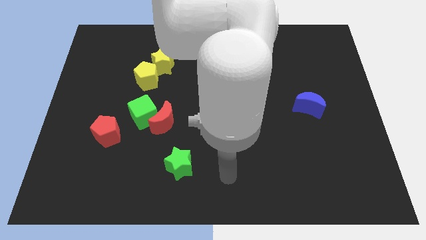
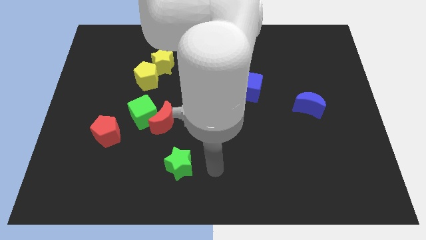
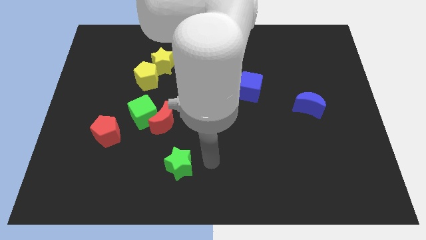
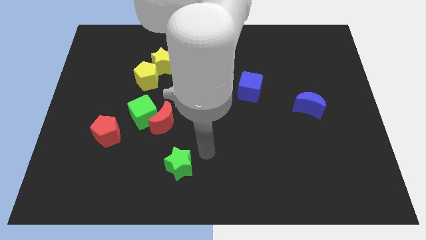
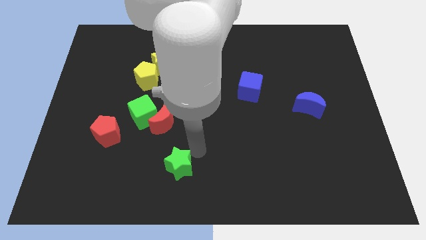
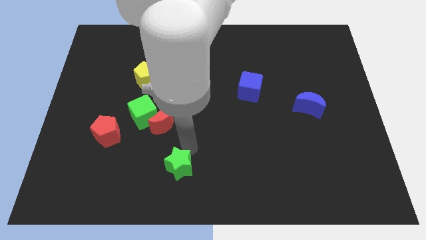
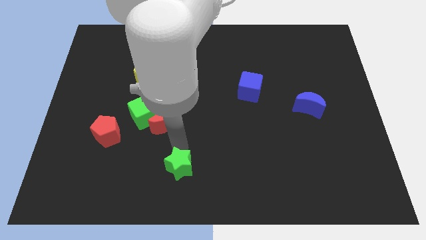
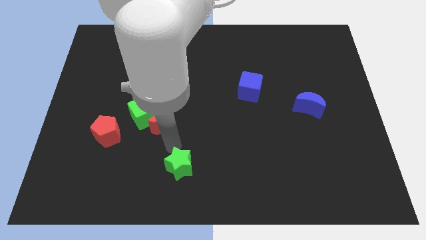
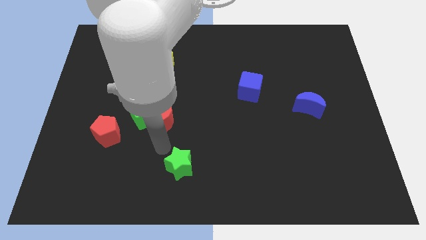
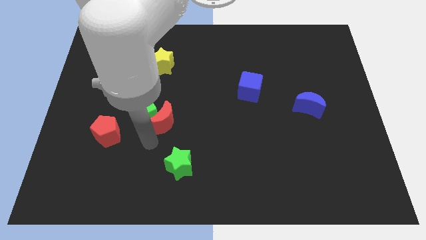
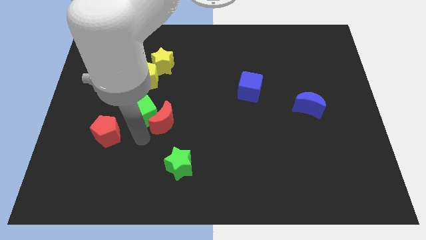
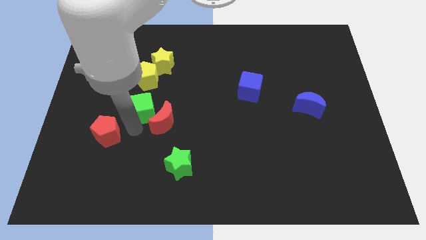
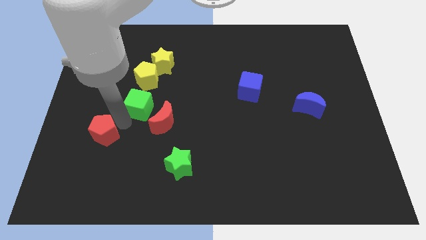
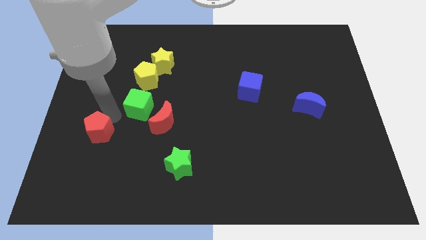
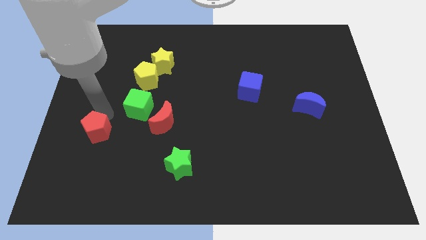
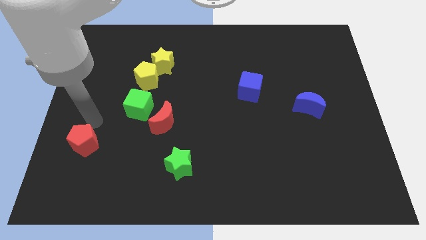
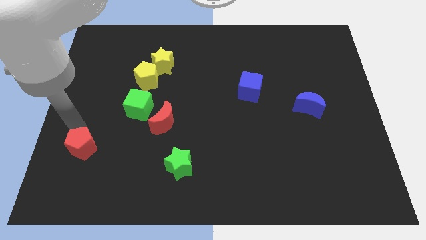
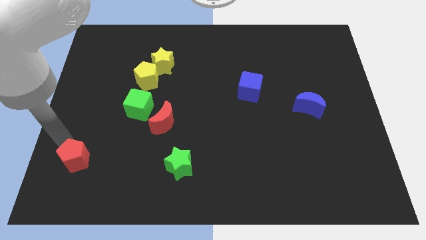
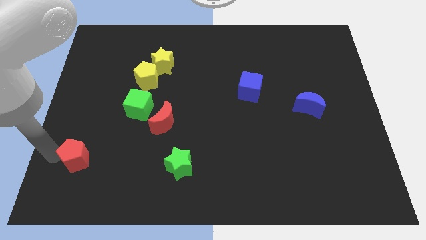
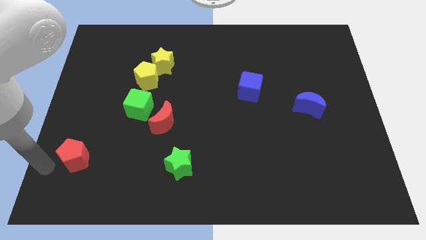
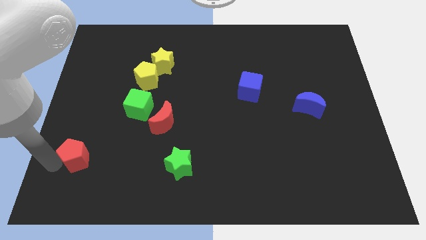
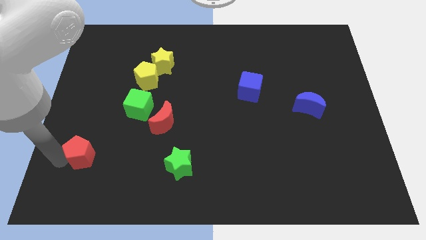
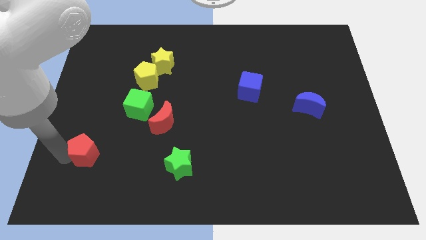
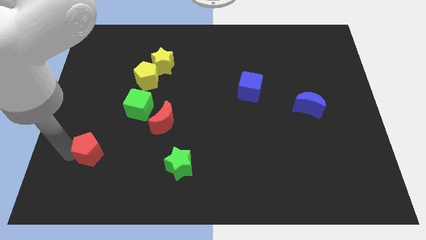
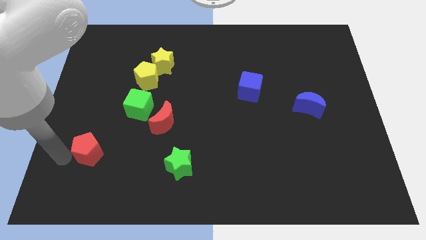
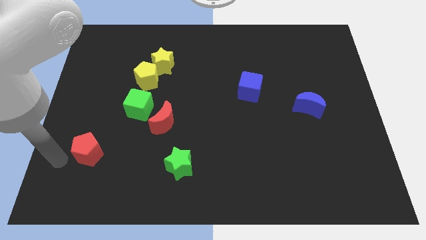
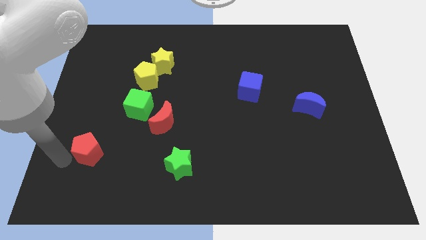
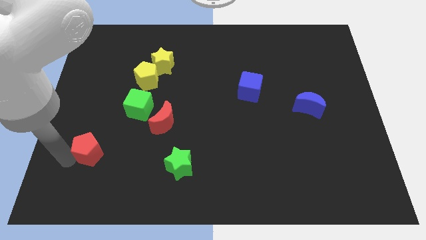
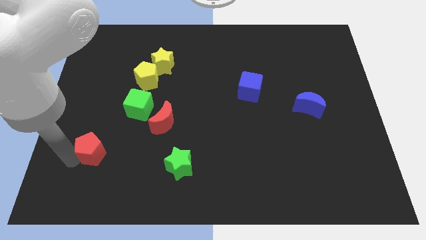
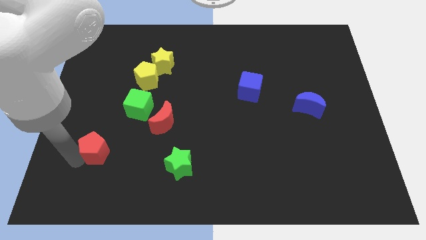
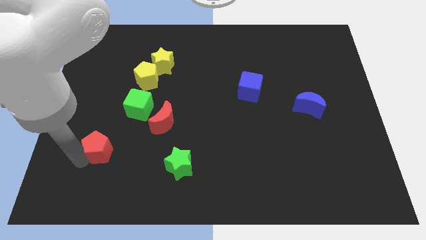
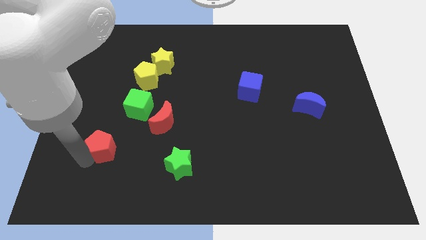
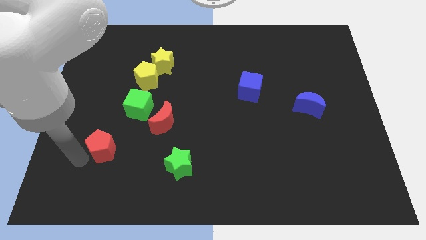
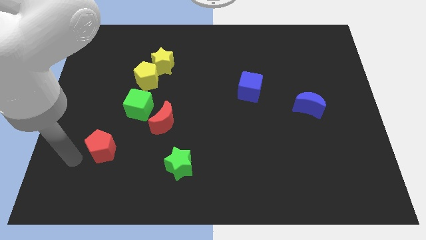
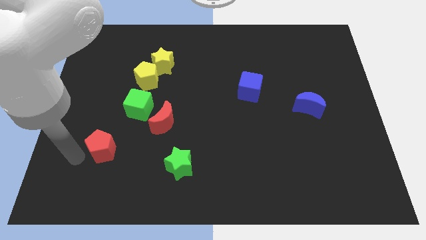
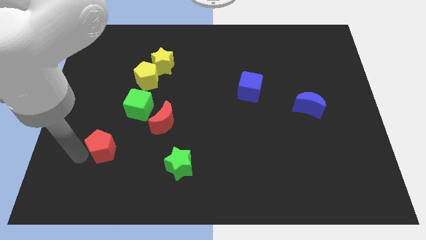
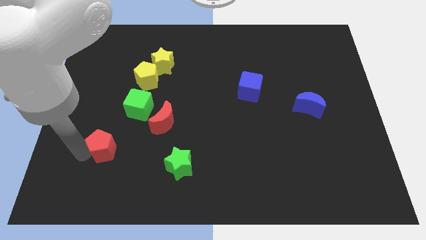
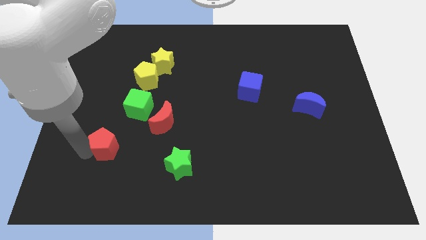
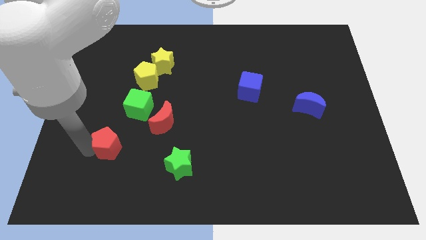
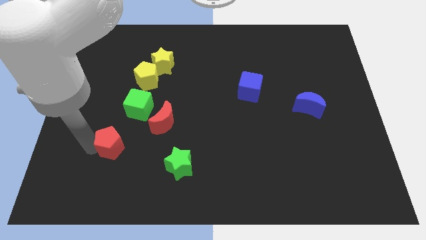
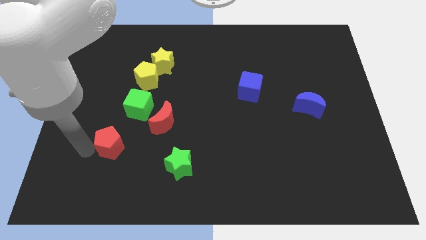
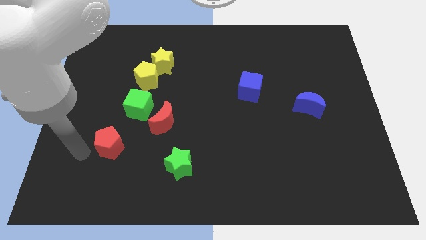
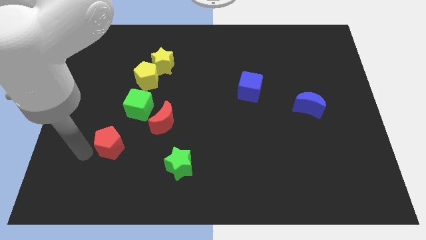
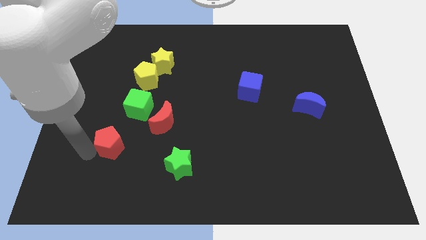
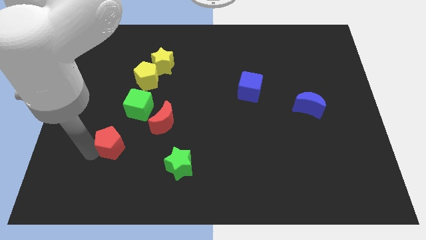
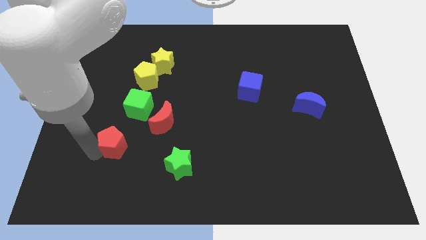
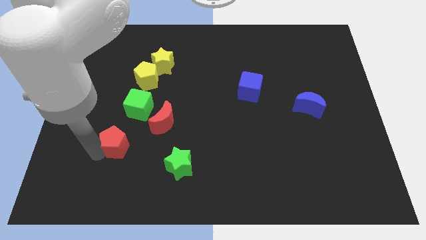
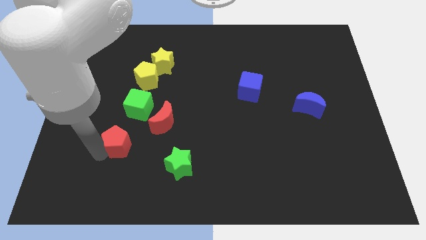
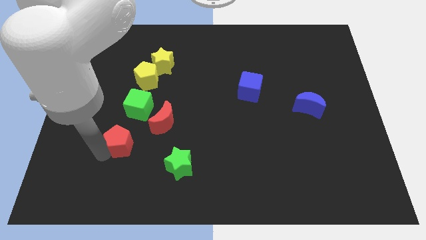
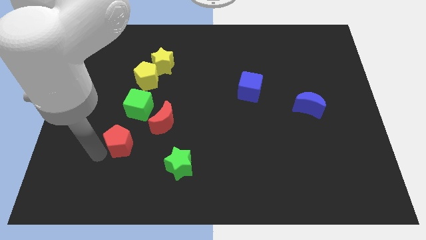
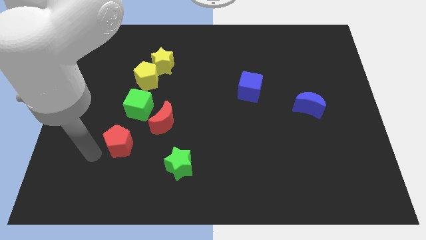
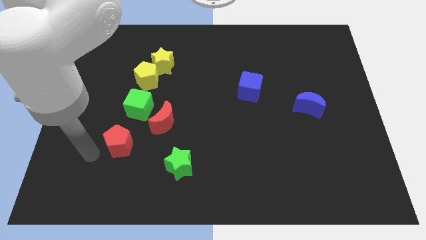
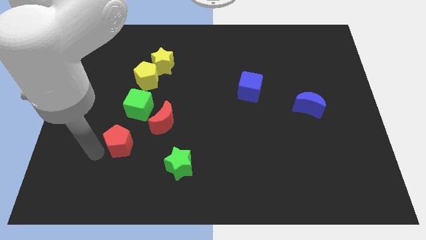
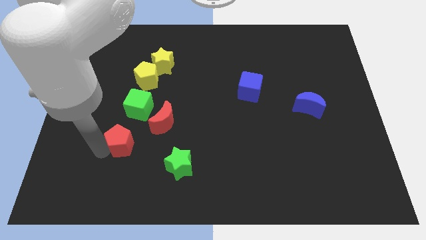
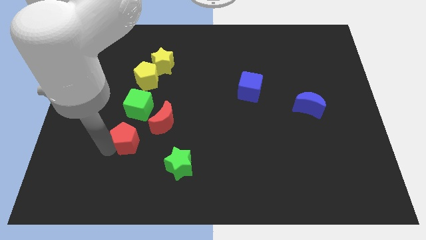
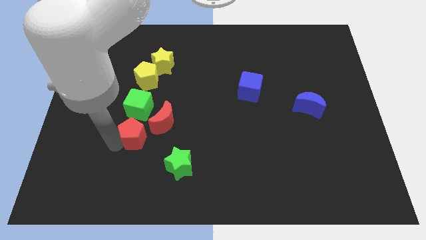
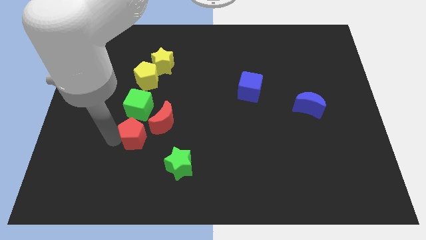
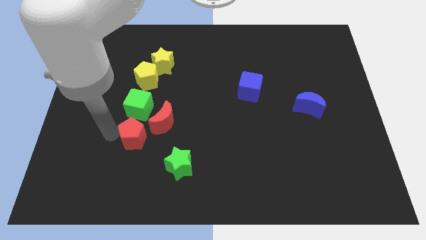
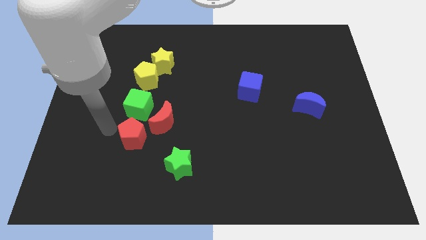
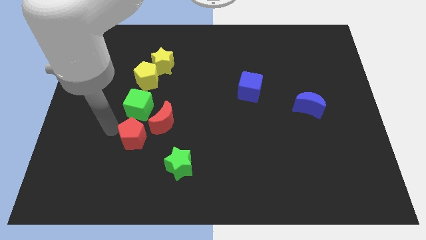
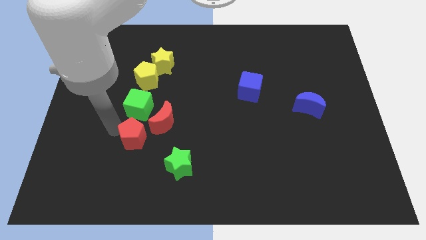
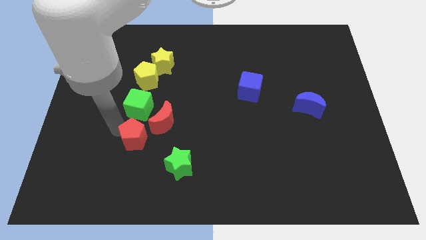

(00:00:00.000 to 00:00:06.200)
put the red pentagon to the top left side of the green star

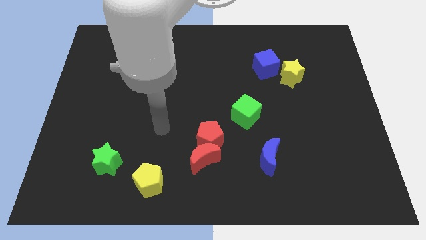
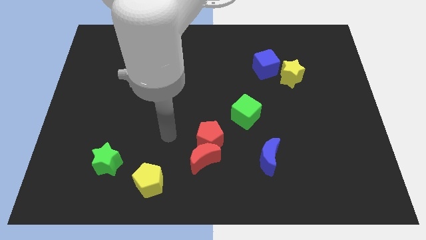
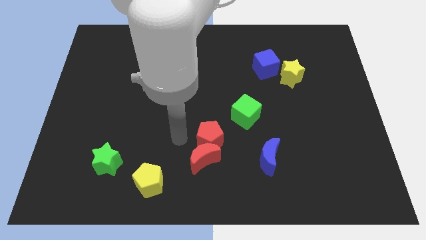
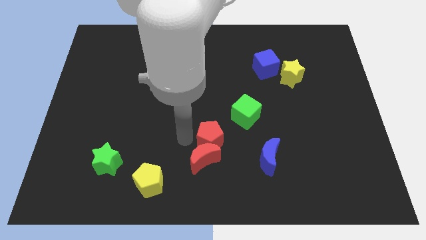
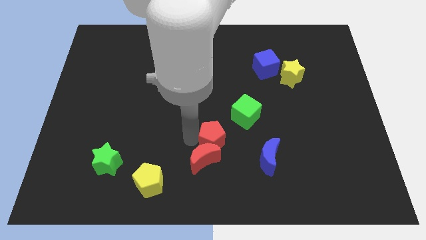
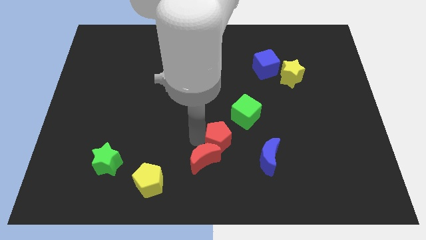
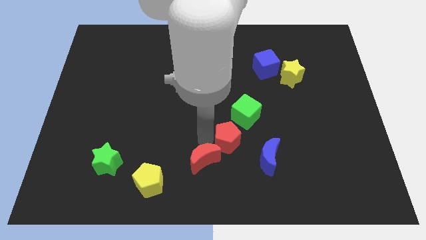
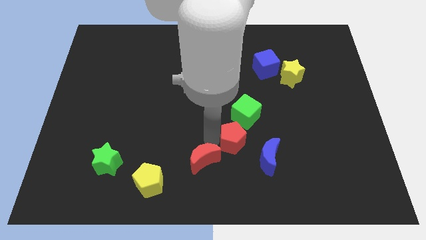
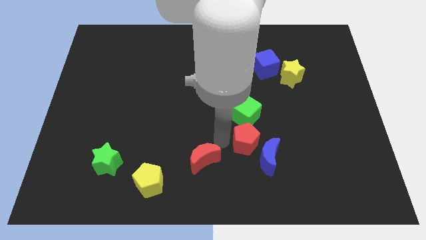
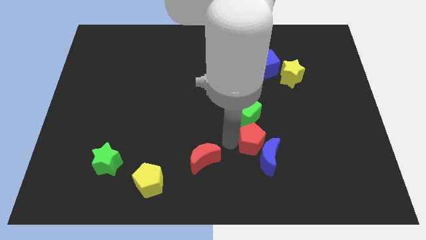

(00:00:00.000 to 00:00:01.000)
slide the red pentagon to the bottom right of the green cube
